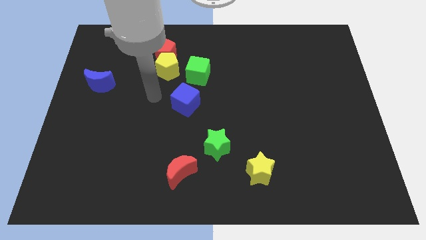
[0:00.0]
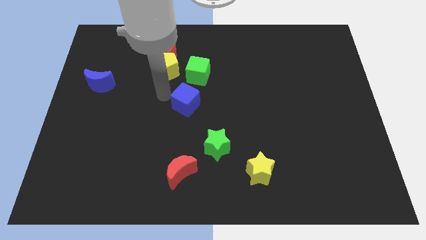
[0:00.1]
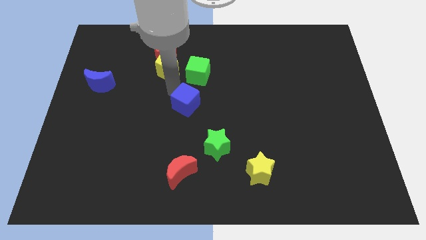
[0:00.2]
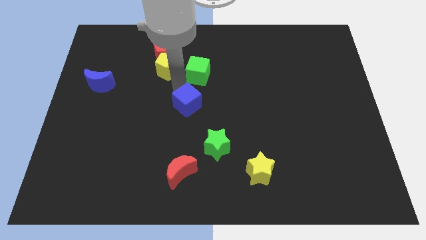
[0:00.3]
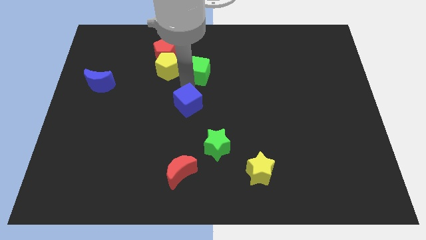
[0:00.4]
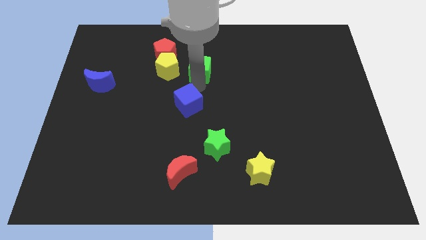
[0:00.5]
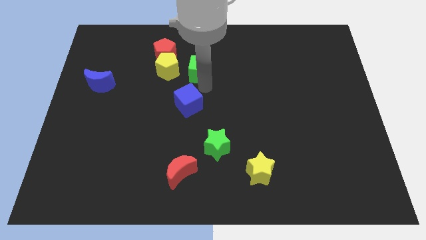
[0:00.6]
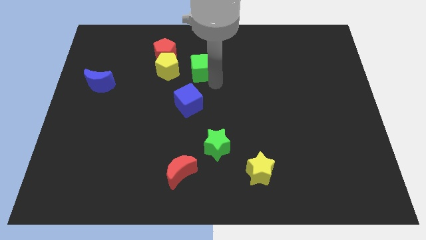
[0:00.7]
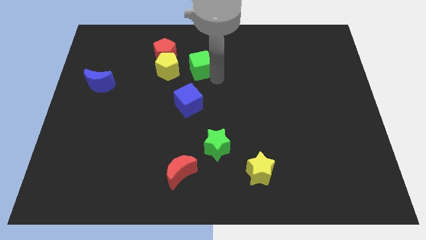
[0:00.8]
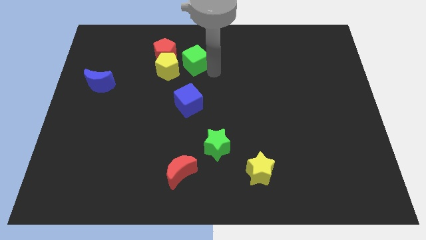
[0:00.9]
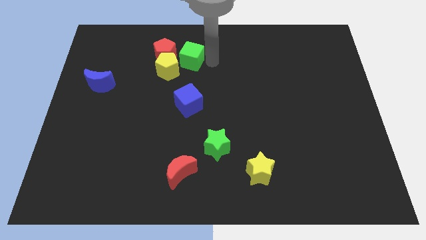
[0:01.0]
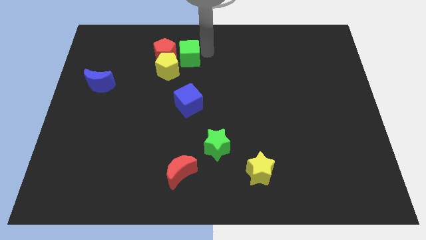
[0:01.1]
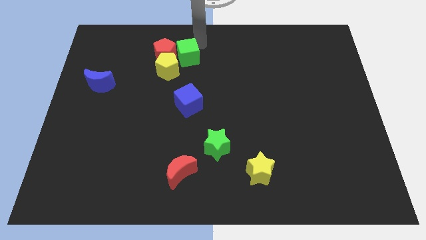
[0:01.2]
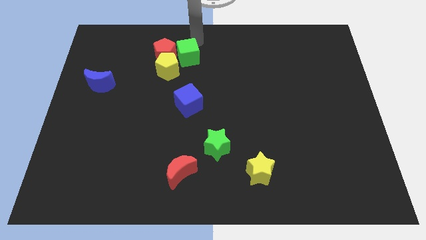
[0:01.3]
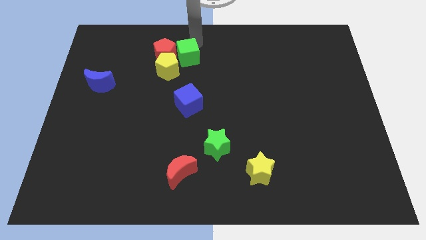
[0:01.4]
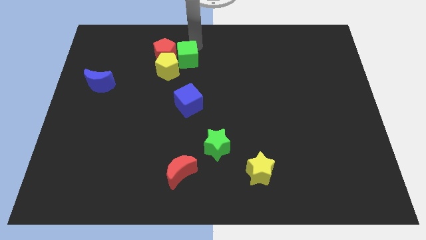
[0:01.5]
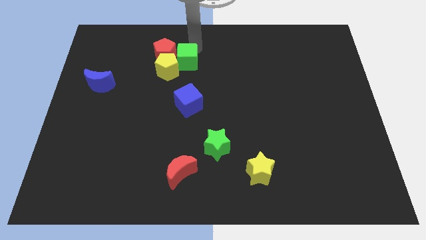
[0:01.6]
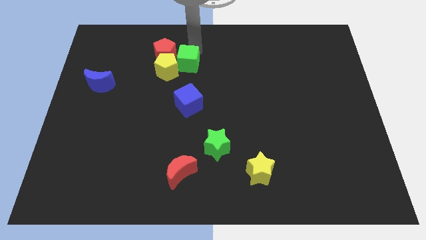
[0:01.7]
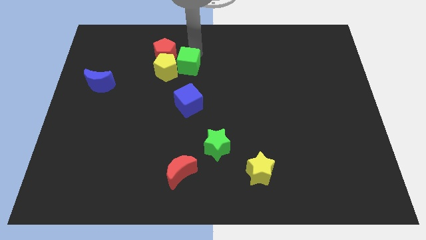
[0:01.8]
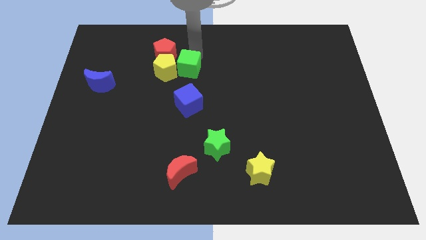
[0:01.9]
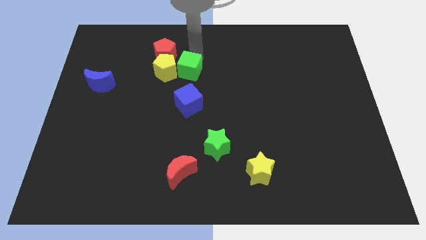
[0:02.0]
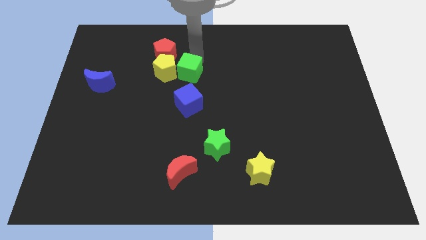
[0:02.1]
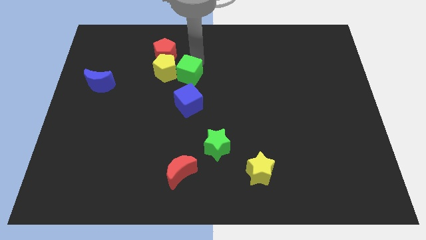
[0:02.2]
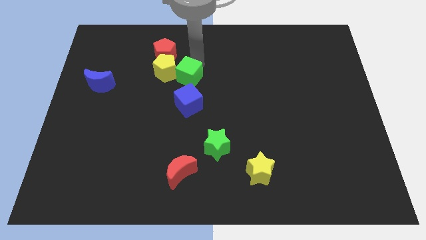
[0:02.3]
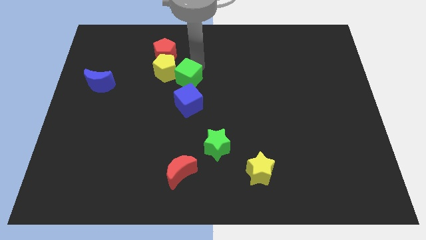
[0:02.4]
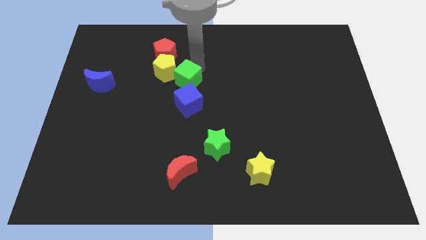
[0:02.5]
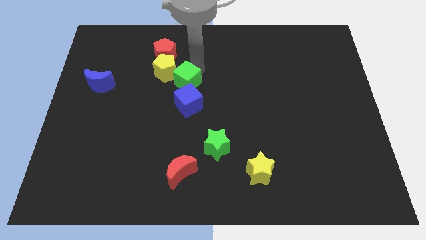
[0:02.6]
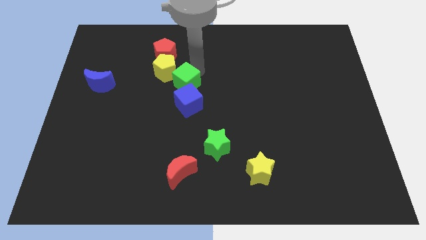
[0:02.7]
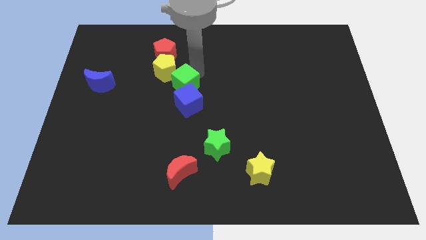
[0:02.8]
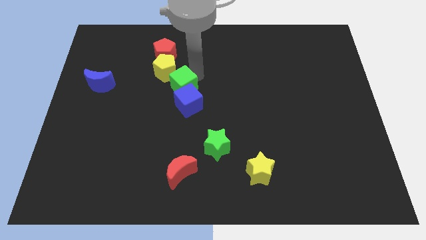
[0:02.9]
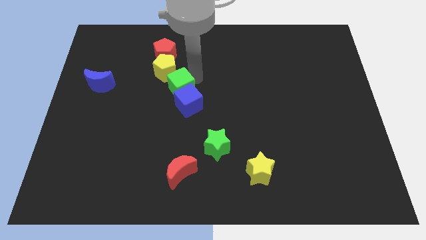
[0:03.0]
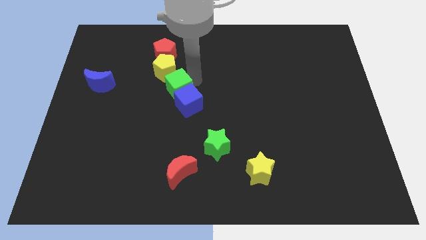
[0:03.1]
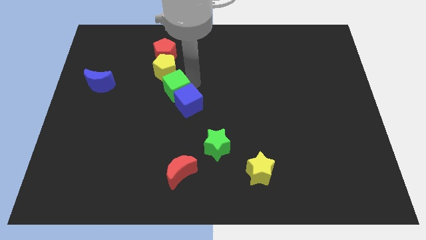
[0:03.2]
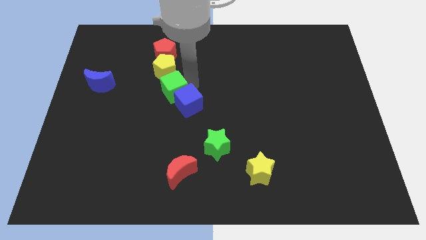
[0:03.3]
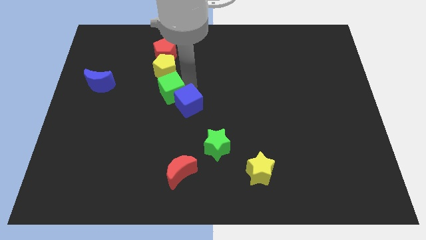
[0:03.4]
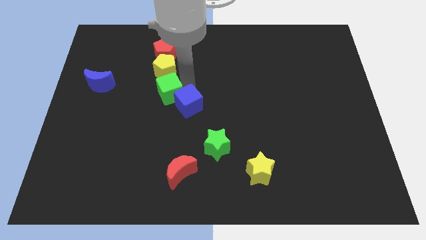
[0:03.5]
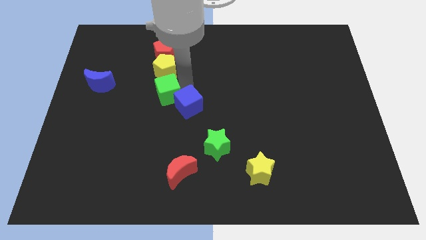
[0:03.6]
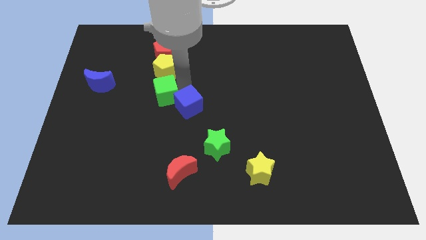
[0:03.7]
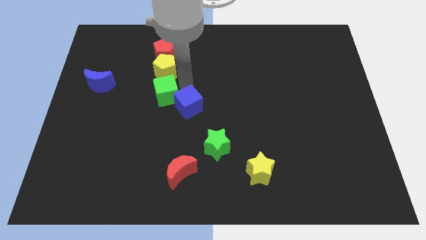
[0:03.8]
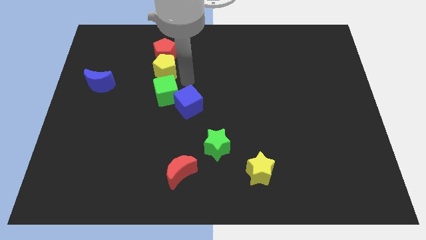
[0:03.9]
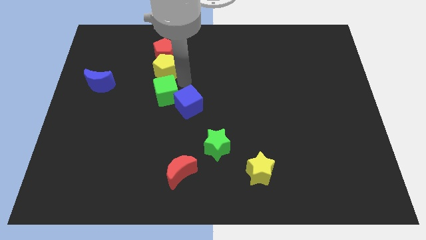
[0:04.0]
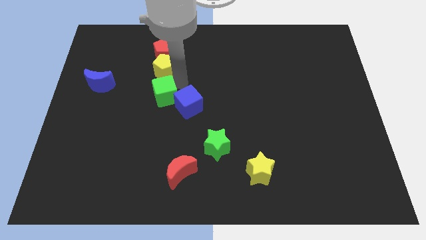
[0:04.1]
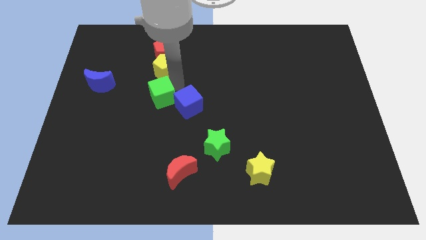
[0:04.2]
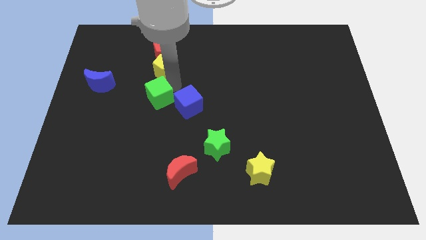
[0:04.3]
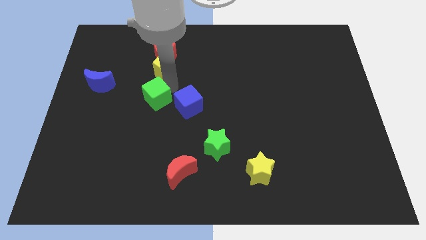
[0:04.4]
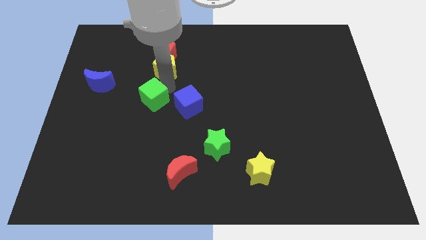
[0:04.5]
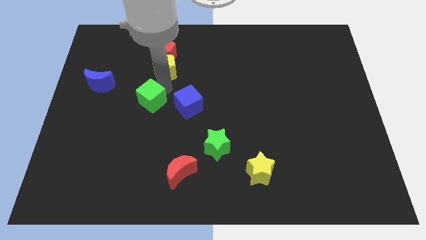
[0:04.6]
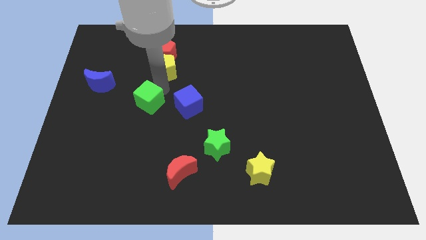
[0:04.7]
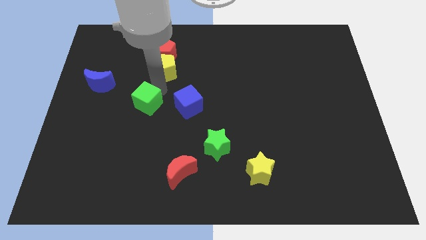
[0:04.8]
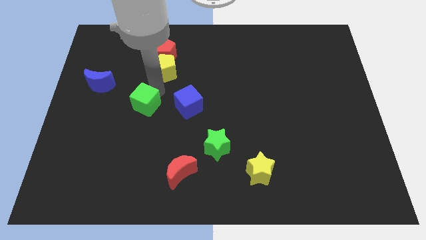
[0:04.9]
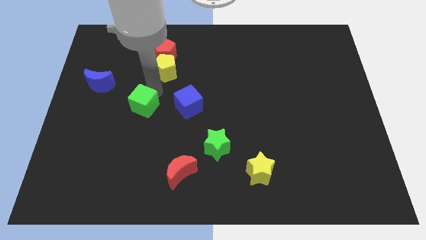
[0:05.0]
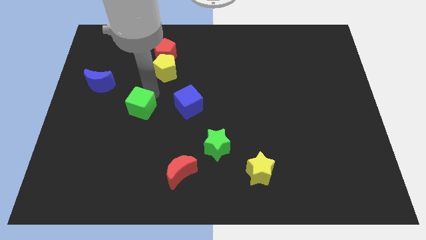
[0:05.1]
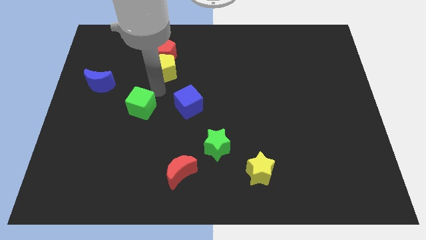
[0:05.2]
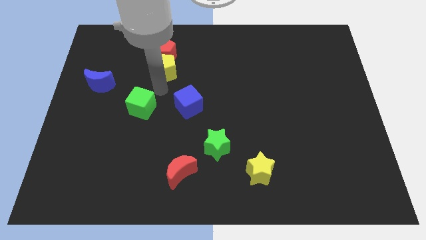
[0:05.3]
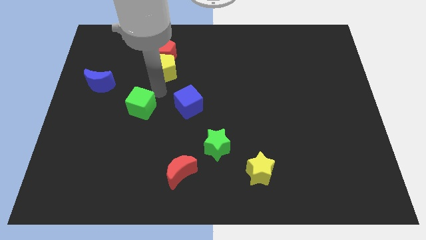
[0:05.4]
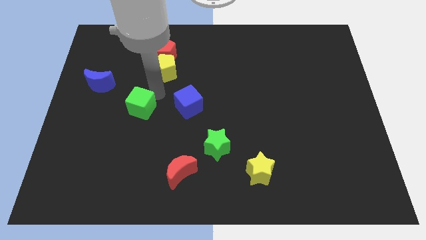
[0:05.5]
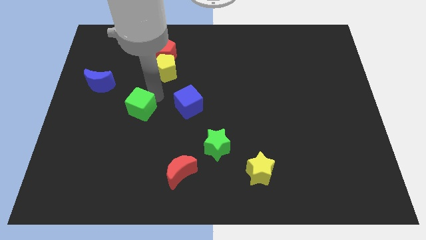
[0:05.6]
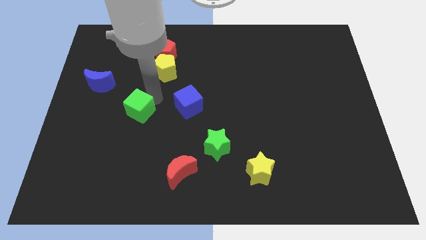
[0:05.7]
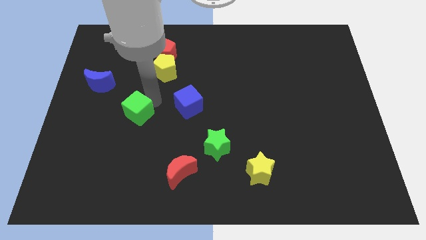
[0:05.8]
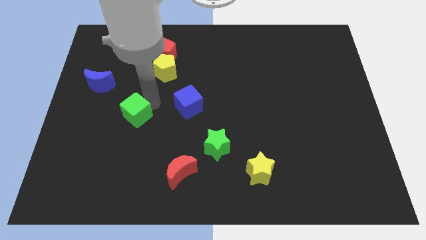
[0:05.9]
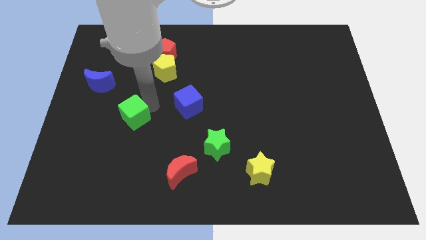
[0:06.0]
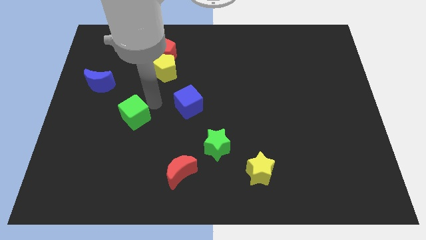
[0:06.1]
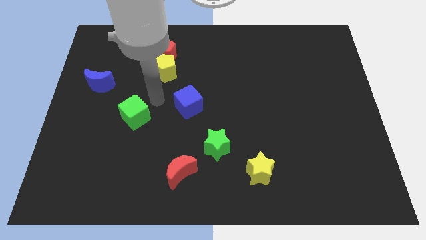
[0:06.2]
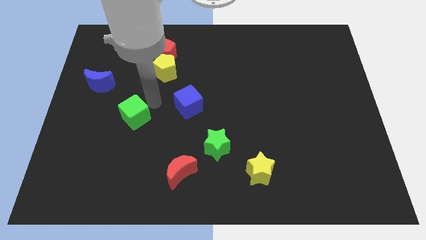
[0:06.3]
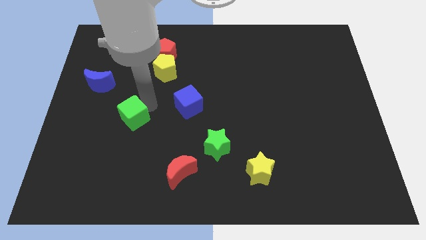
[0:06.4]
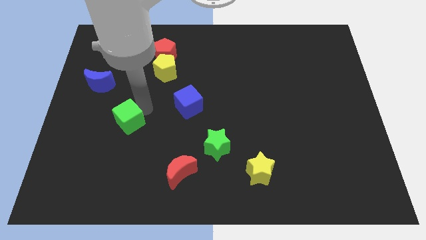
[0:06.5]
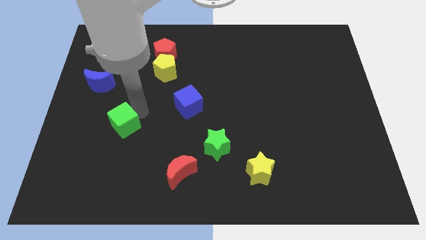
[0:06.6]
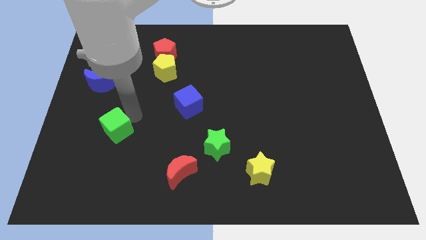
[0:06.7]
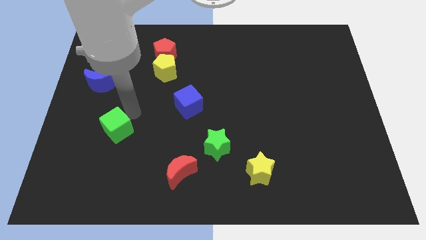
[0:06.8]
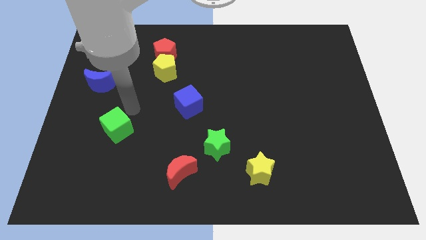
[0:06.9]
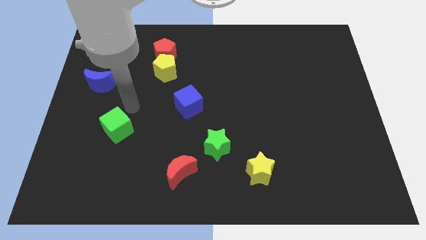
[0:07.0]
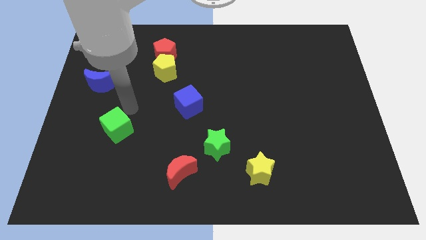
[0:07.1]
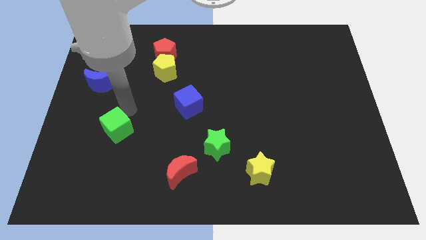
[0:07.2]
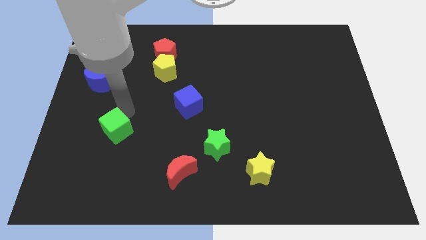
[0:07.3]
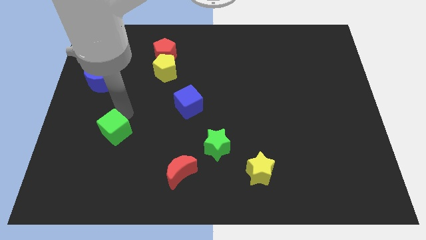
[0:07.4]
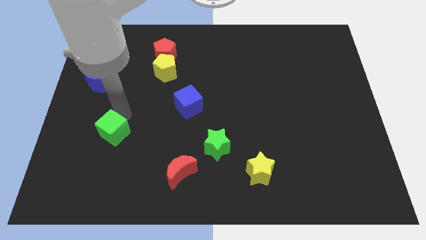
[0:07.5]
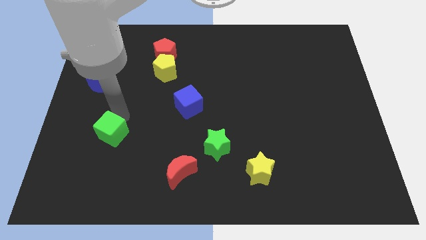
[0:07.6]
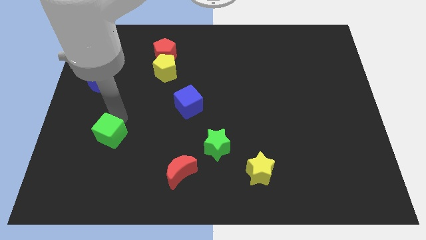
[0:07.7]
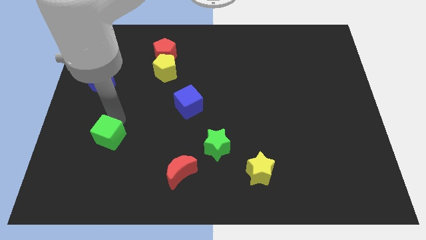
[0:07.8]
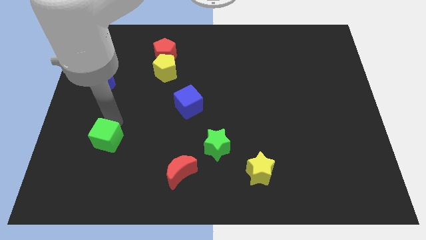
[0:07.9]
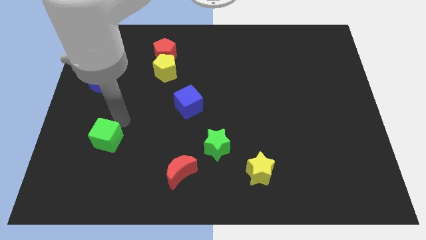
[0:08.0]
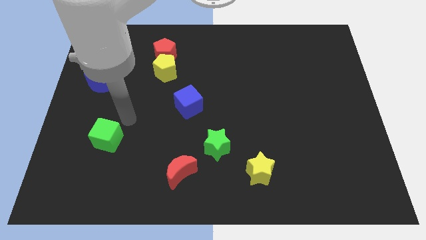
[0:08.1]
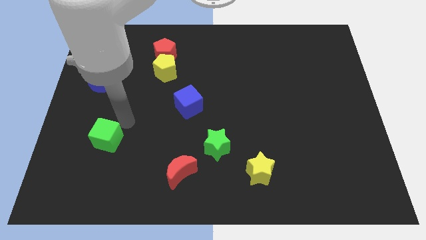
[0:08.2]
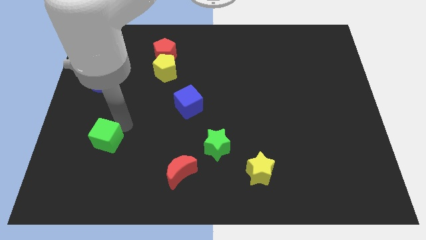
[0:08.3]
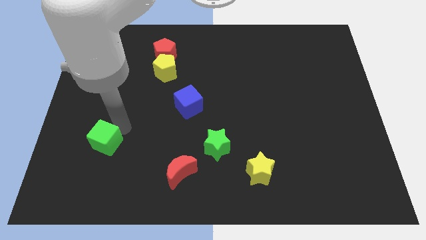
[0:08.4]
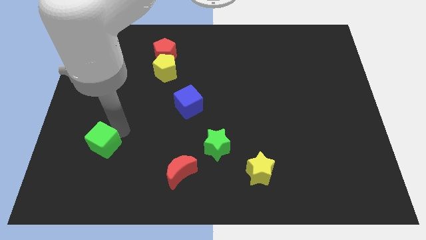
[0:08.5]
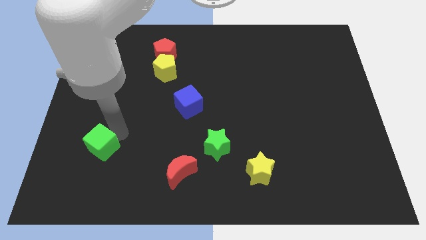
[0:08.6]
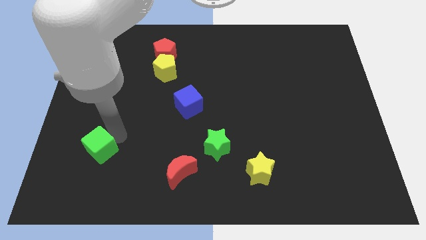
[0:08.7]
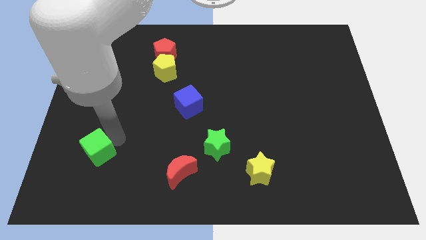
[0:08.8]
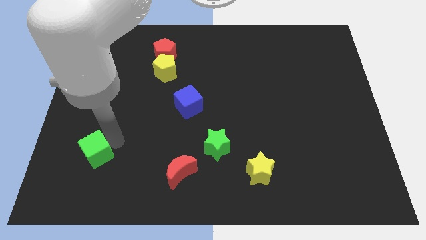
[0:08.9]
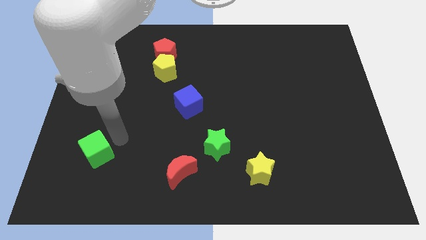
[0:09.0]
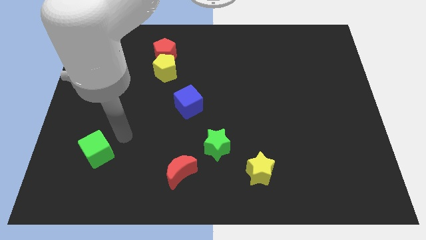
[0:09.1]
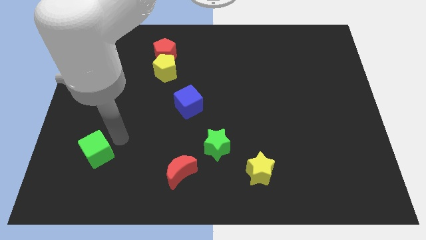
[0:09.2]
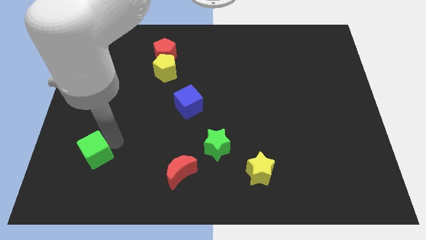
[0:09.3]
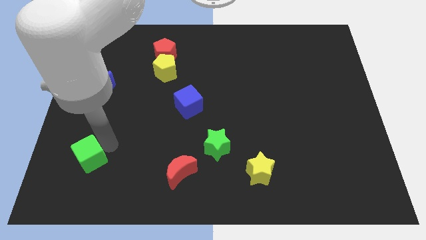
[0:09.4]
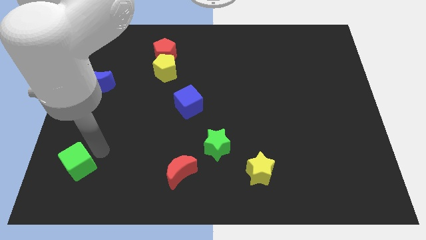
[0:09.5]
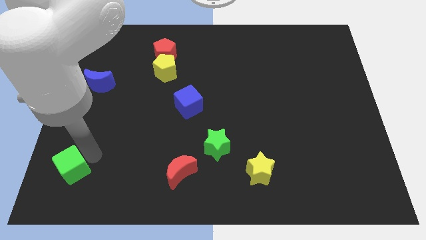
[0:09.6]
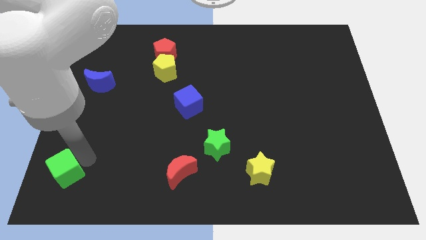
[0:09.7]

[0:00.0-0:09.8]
push the green cube to the bottom left
